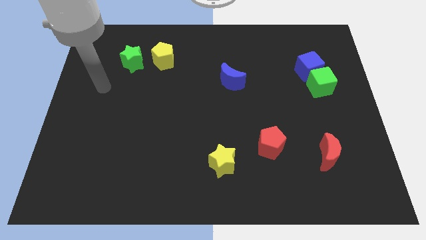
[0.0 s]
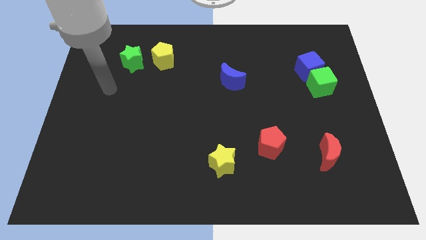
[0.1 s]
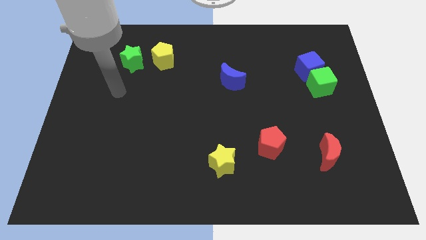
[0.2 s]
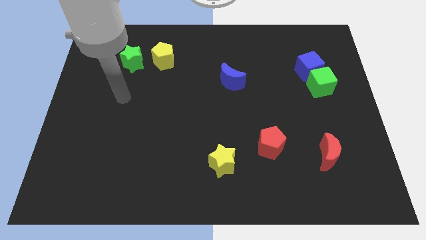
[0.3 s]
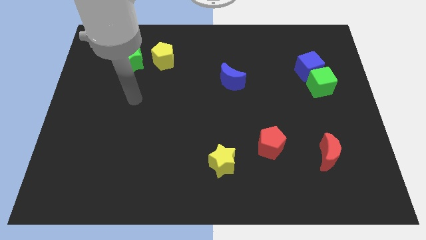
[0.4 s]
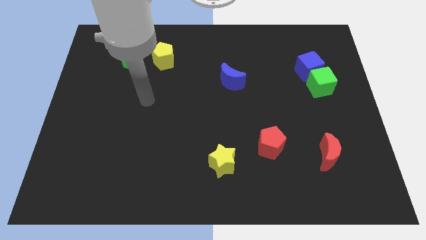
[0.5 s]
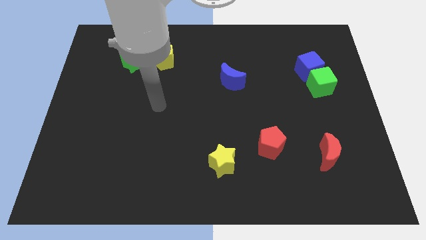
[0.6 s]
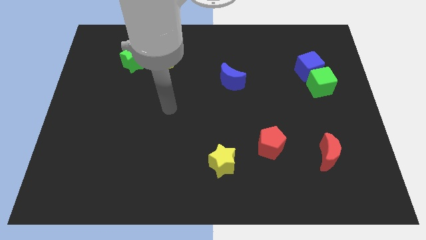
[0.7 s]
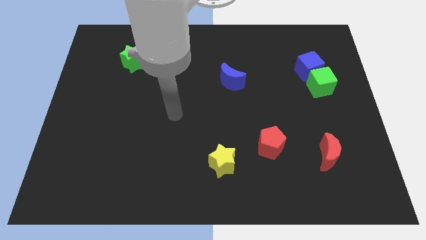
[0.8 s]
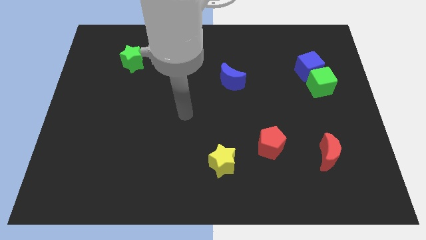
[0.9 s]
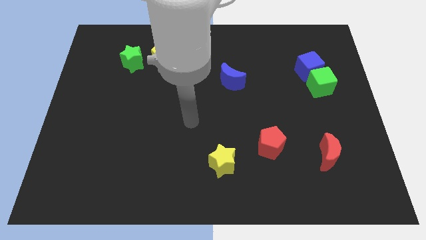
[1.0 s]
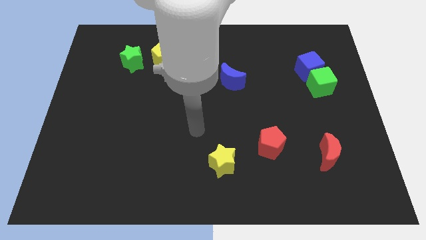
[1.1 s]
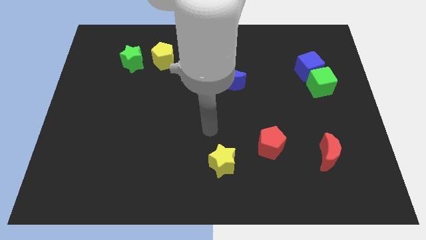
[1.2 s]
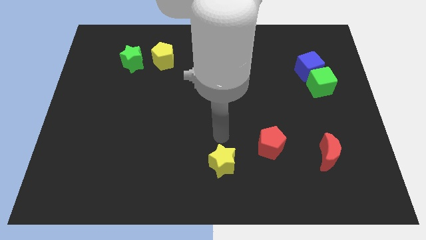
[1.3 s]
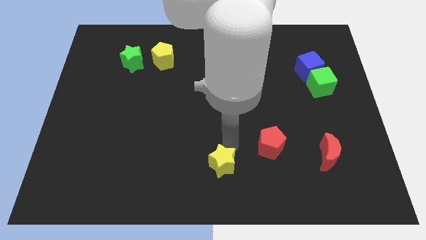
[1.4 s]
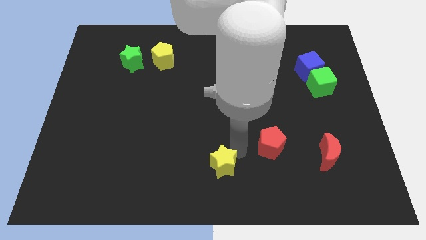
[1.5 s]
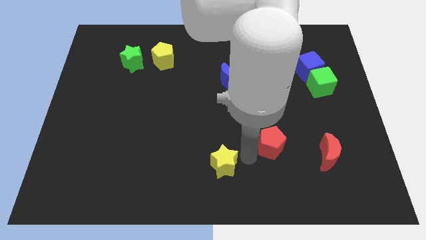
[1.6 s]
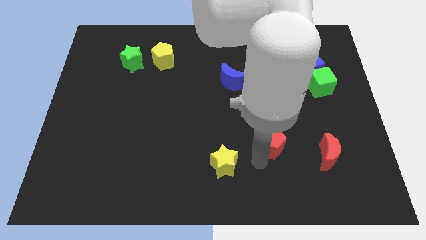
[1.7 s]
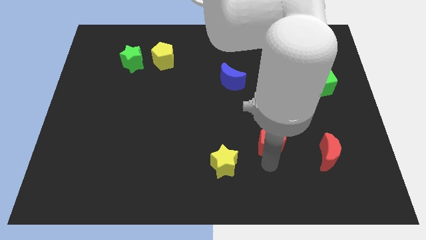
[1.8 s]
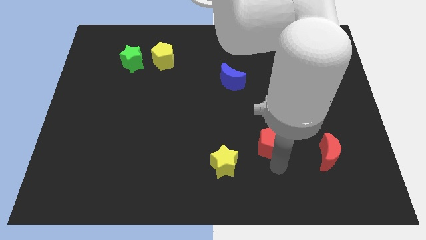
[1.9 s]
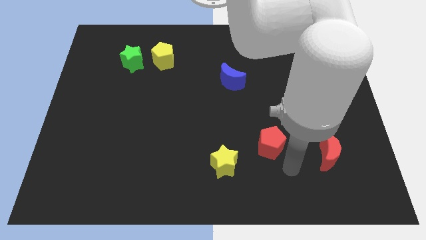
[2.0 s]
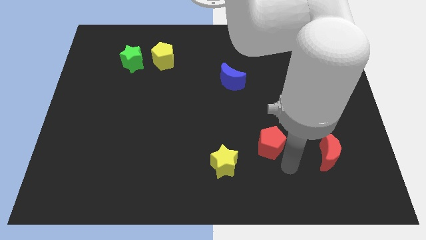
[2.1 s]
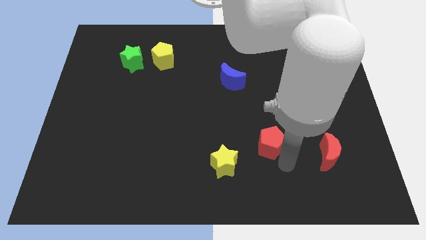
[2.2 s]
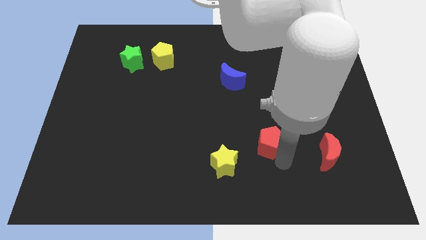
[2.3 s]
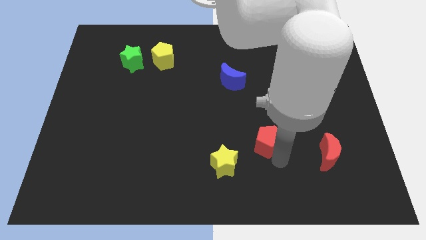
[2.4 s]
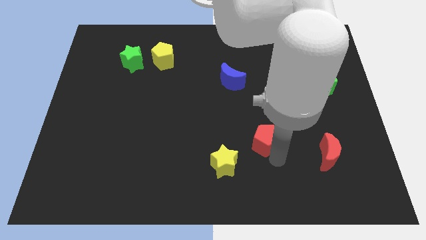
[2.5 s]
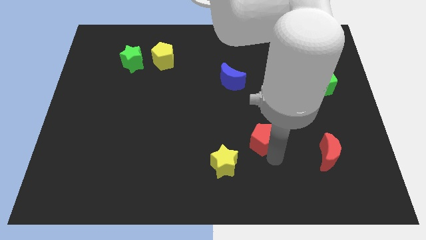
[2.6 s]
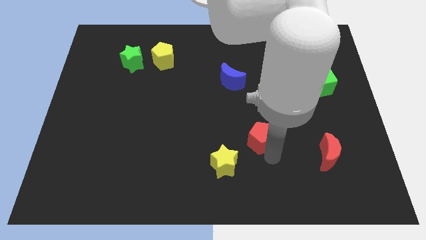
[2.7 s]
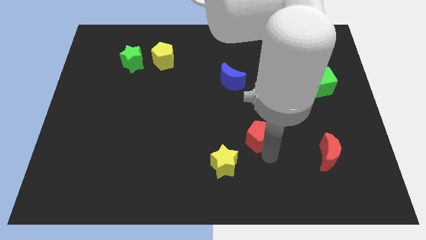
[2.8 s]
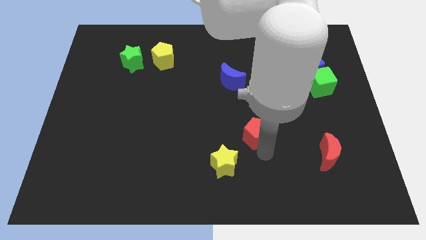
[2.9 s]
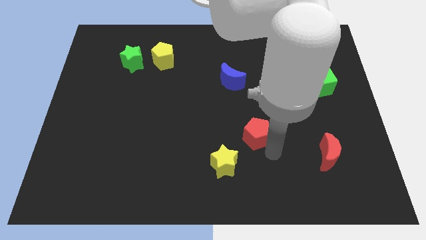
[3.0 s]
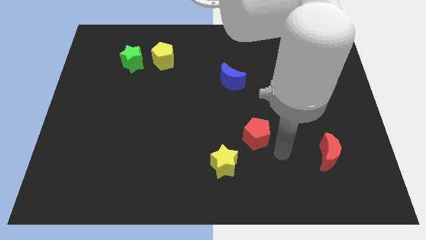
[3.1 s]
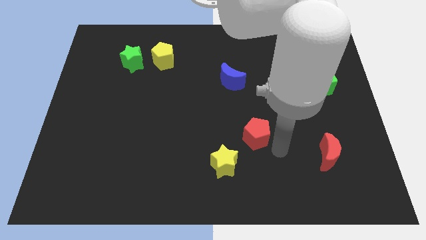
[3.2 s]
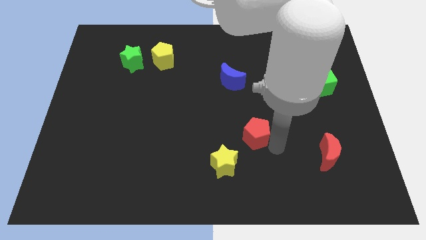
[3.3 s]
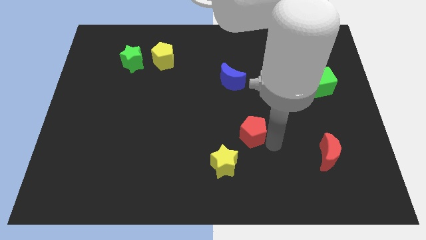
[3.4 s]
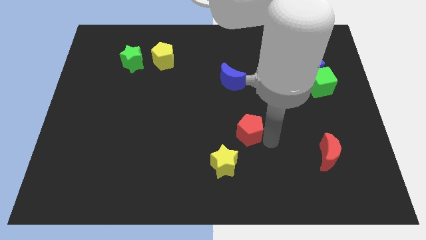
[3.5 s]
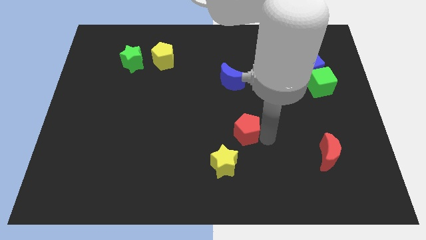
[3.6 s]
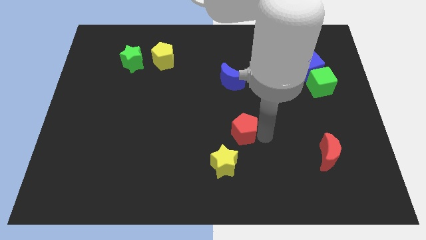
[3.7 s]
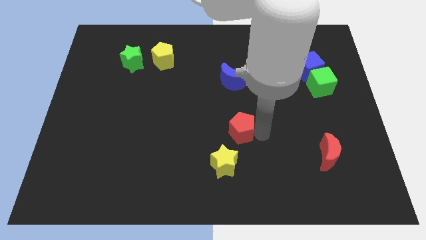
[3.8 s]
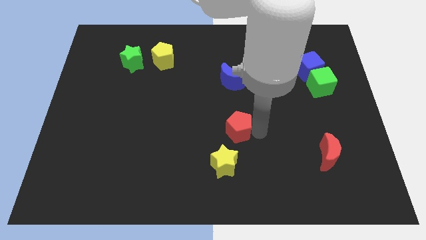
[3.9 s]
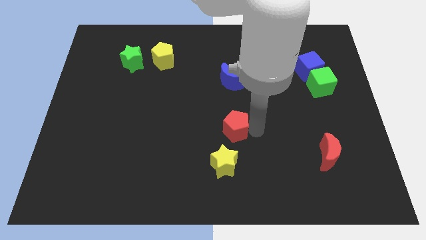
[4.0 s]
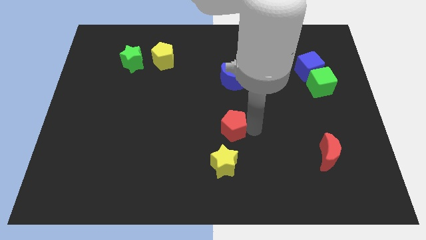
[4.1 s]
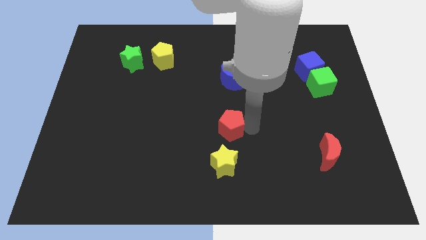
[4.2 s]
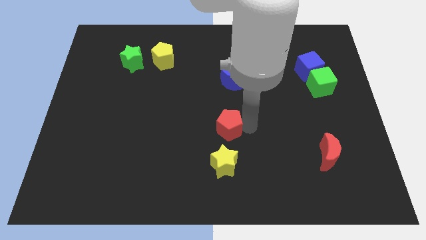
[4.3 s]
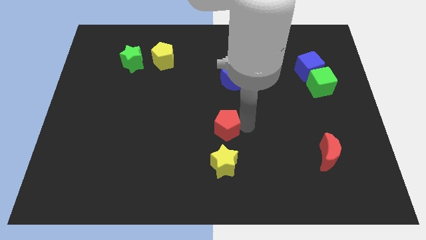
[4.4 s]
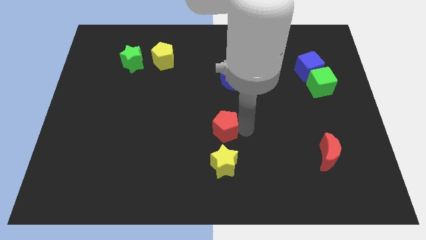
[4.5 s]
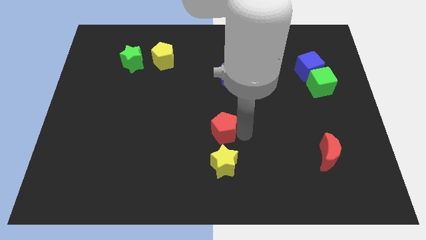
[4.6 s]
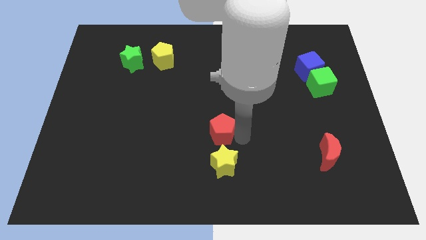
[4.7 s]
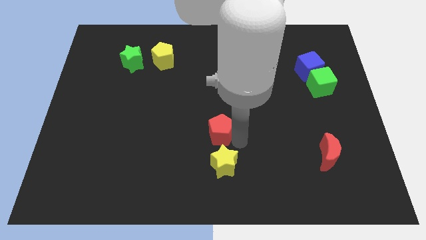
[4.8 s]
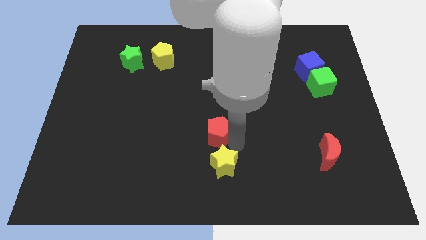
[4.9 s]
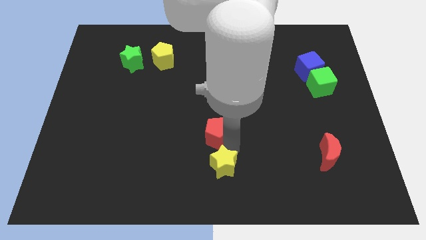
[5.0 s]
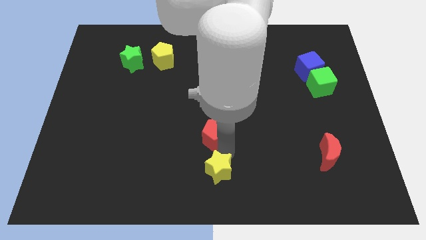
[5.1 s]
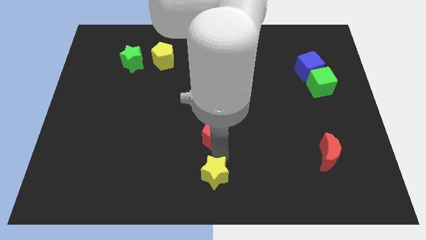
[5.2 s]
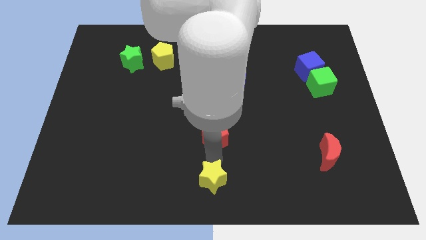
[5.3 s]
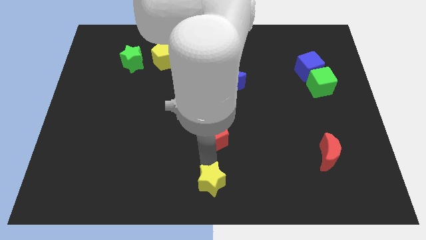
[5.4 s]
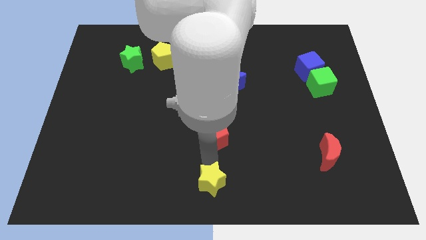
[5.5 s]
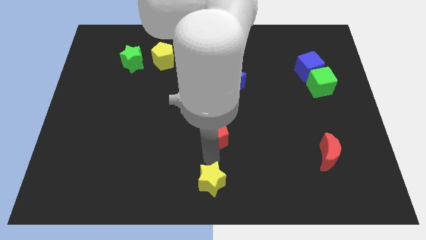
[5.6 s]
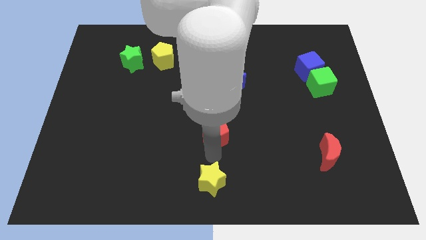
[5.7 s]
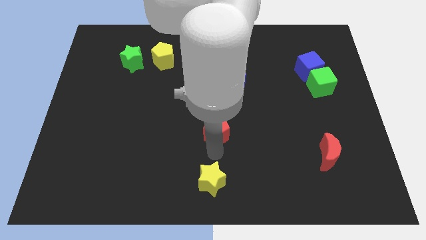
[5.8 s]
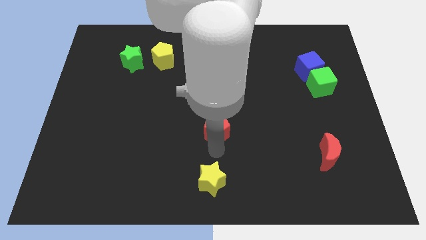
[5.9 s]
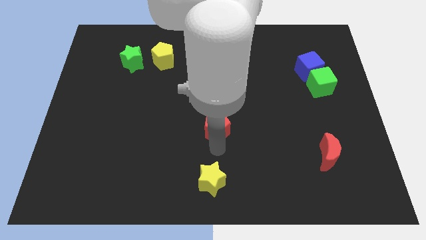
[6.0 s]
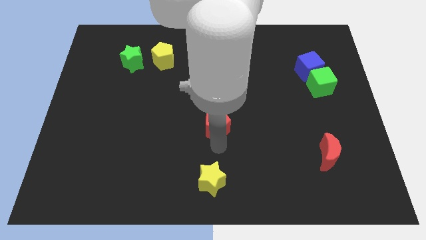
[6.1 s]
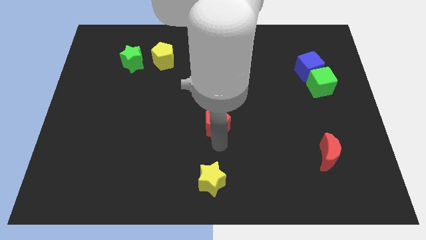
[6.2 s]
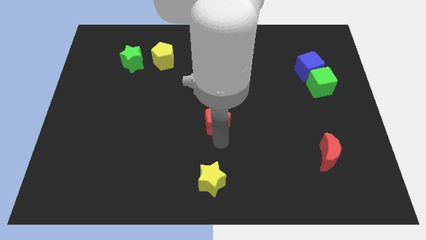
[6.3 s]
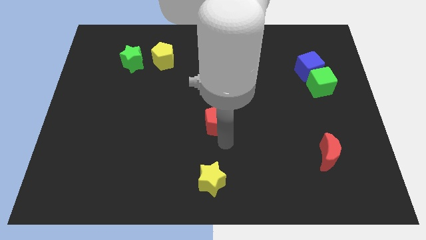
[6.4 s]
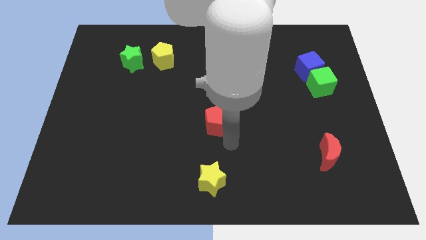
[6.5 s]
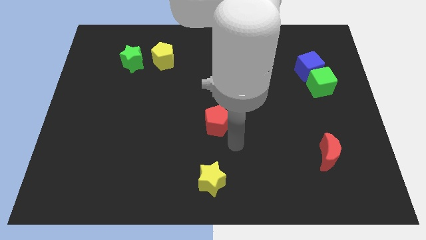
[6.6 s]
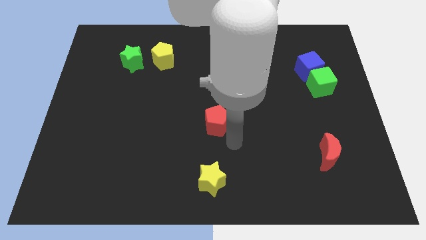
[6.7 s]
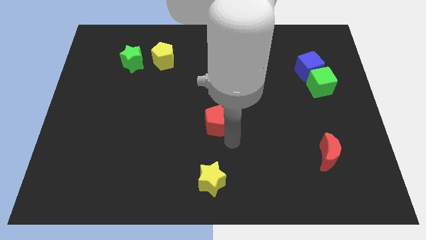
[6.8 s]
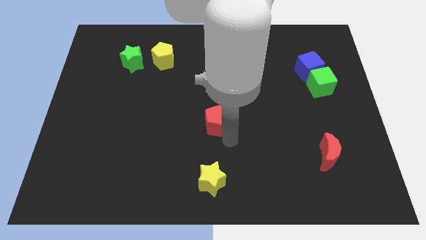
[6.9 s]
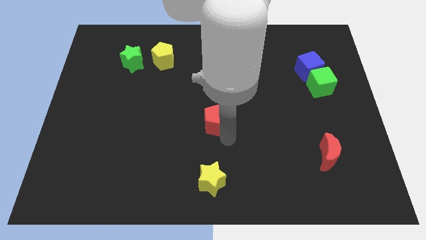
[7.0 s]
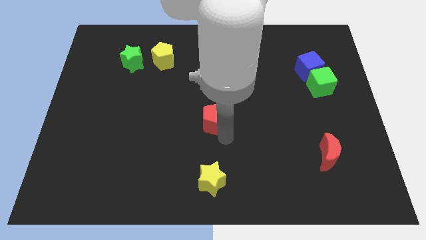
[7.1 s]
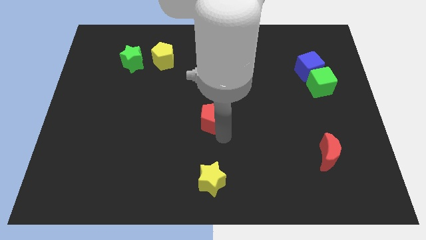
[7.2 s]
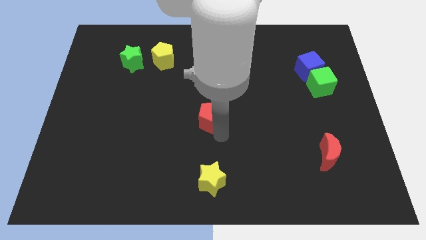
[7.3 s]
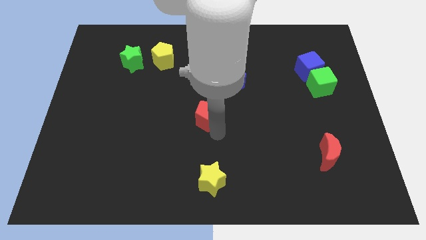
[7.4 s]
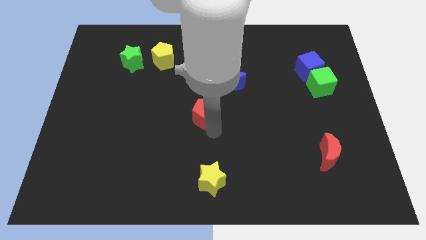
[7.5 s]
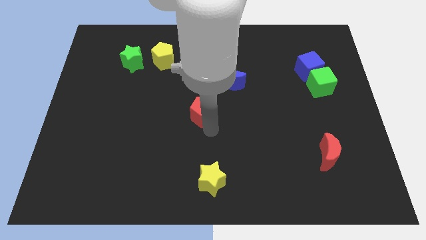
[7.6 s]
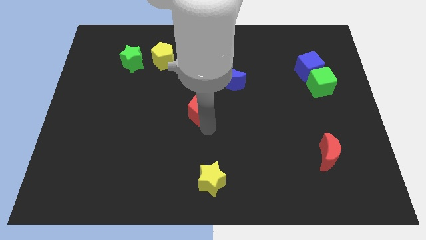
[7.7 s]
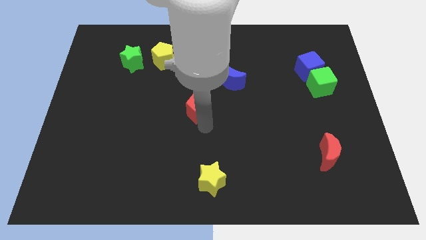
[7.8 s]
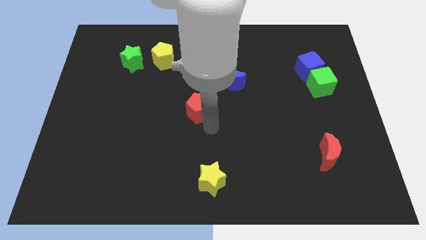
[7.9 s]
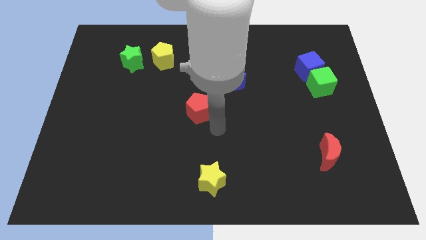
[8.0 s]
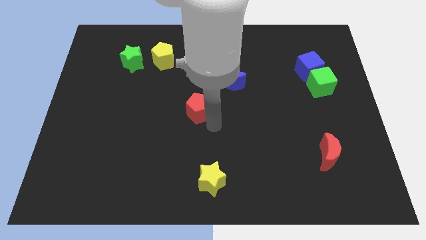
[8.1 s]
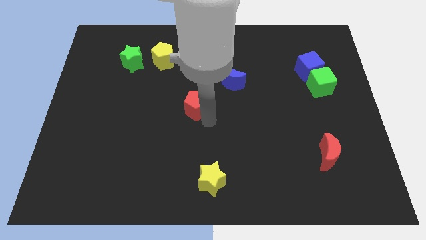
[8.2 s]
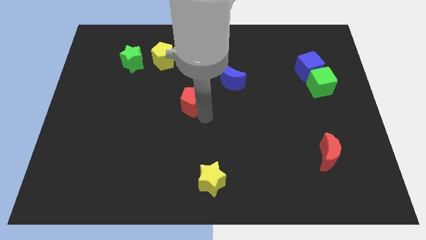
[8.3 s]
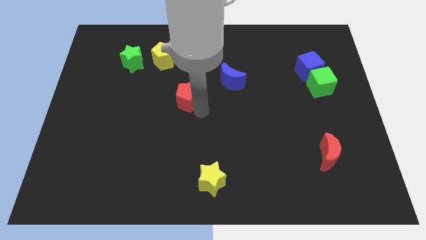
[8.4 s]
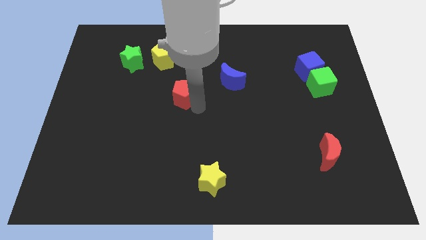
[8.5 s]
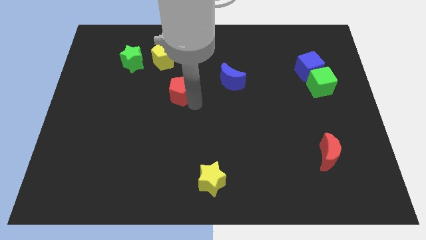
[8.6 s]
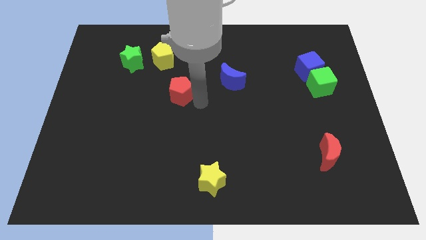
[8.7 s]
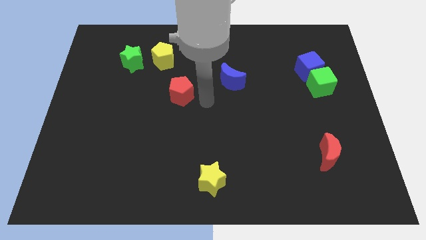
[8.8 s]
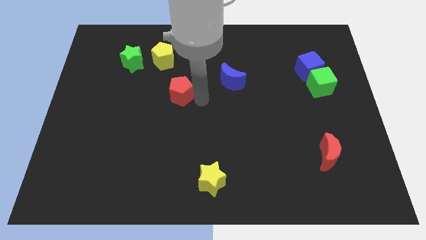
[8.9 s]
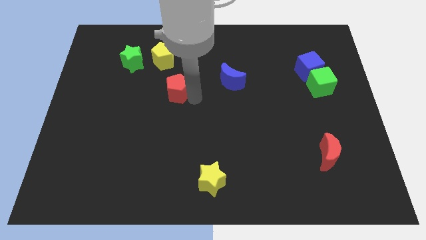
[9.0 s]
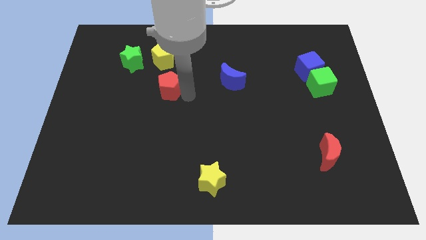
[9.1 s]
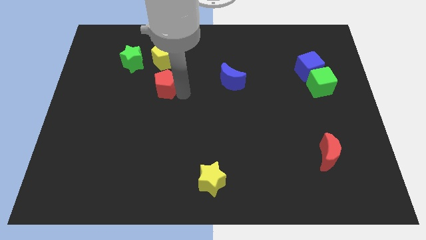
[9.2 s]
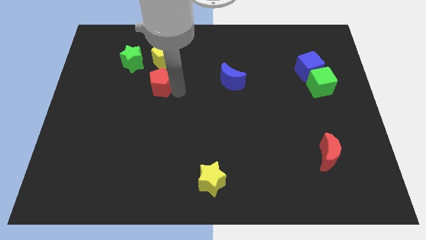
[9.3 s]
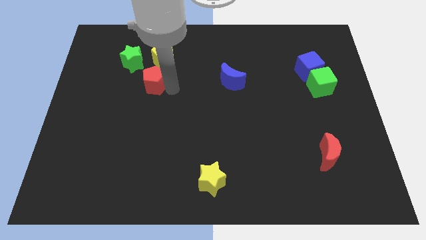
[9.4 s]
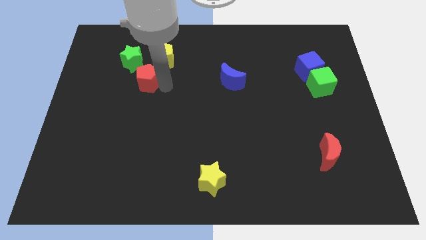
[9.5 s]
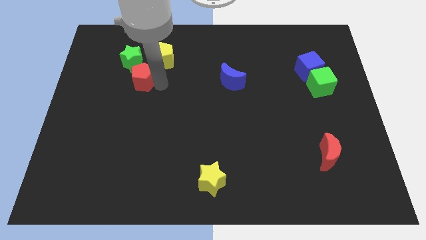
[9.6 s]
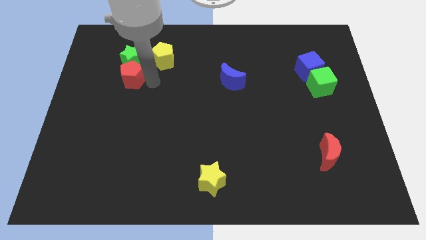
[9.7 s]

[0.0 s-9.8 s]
slide the red pentagon to the bottom left side of the green star
